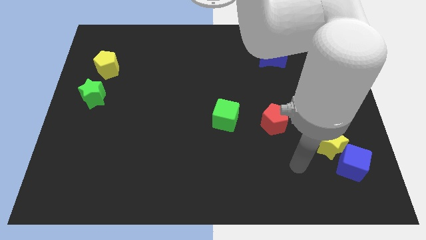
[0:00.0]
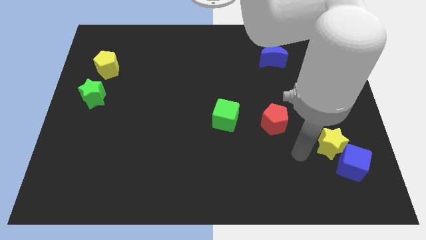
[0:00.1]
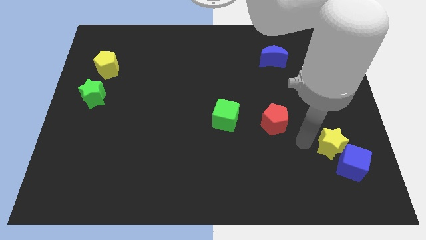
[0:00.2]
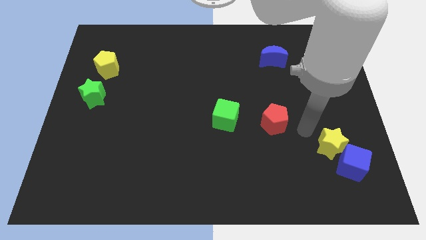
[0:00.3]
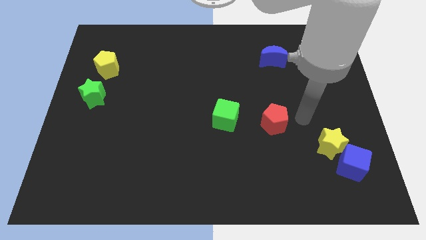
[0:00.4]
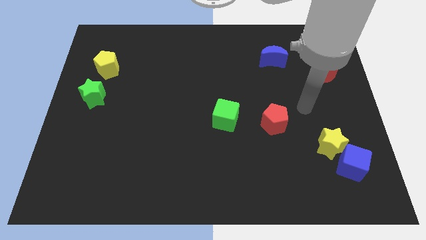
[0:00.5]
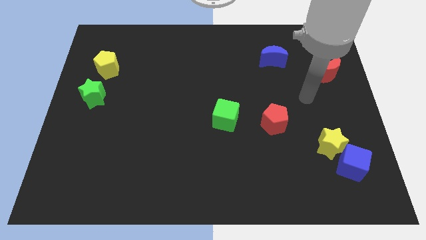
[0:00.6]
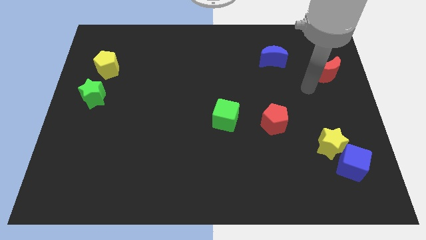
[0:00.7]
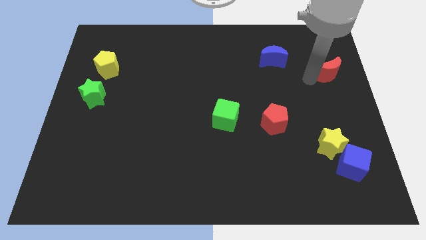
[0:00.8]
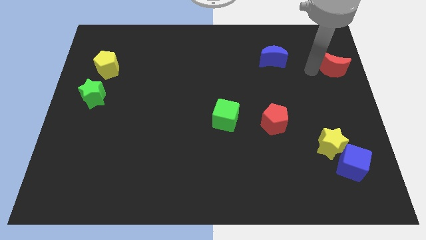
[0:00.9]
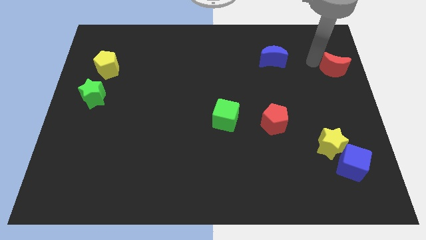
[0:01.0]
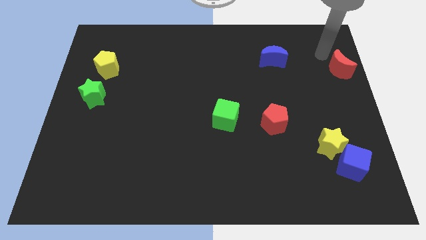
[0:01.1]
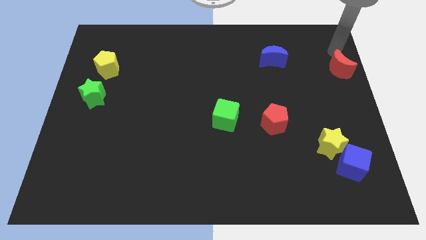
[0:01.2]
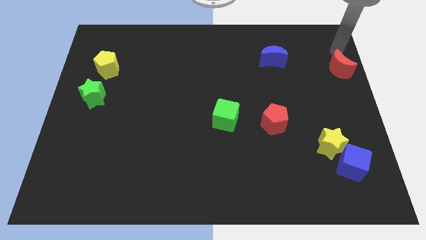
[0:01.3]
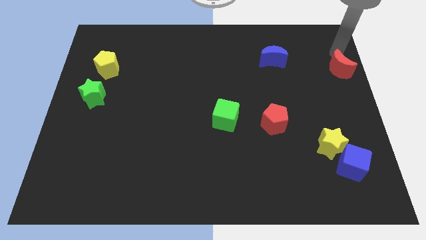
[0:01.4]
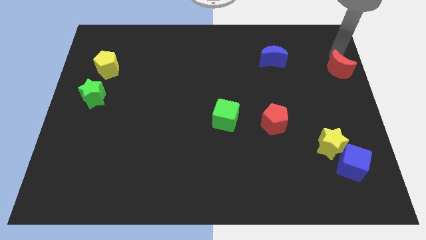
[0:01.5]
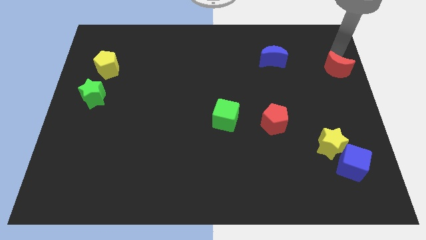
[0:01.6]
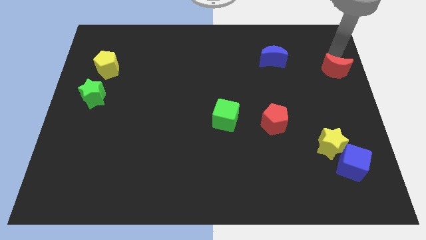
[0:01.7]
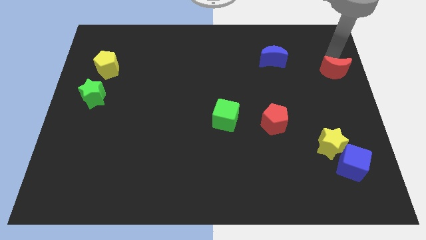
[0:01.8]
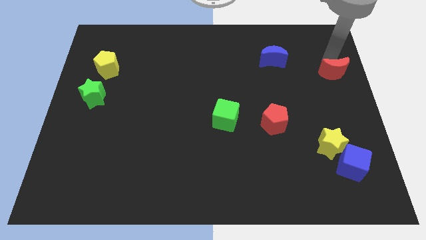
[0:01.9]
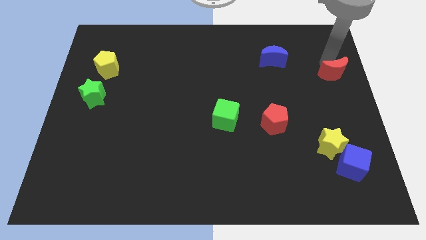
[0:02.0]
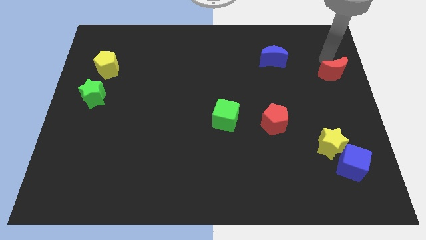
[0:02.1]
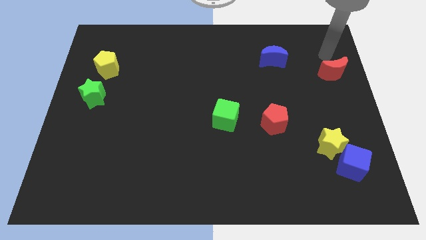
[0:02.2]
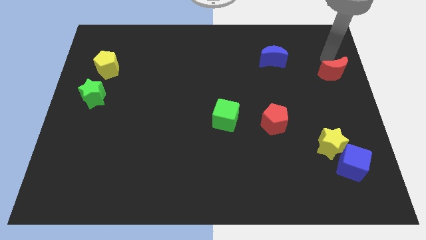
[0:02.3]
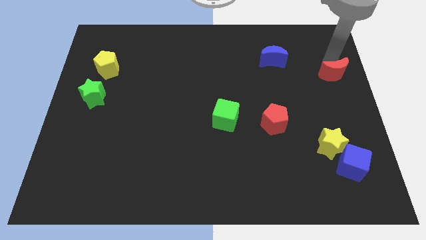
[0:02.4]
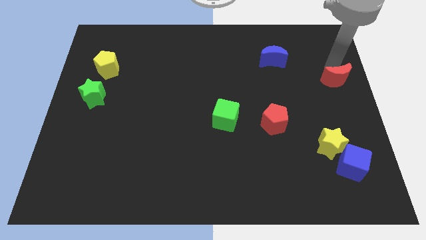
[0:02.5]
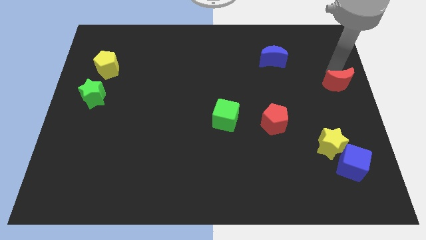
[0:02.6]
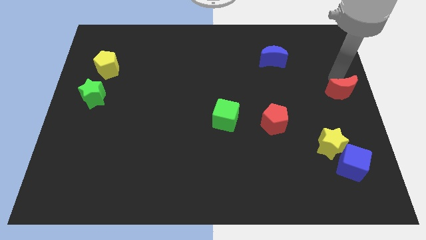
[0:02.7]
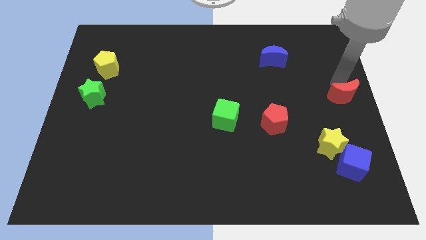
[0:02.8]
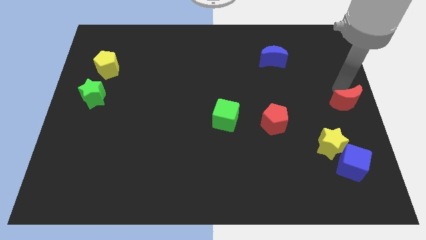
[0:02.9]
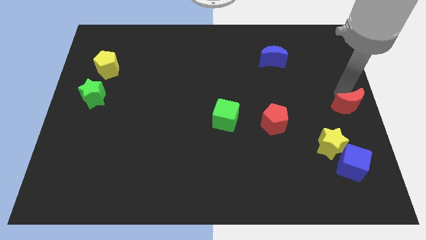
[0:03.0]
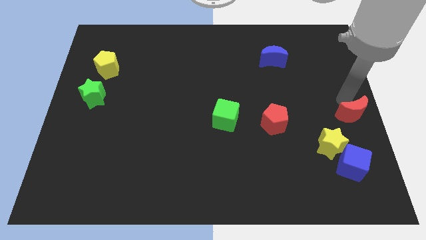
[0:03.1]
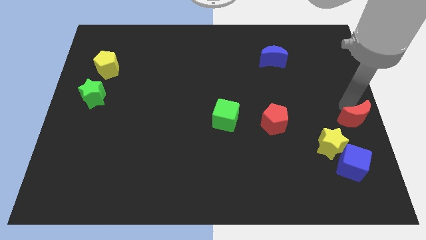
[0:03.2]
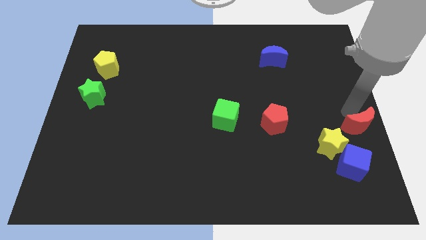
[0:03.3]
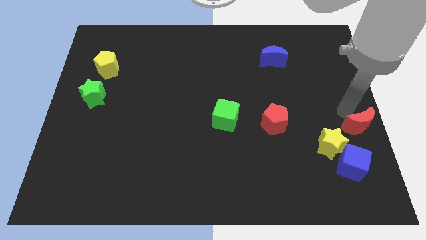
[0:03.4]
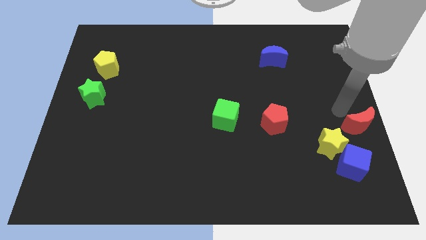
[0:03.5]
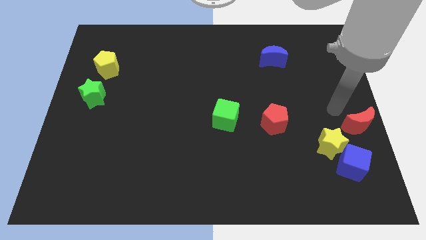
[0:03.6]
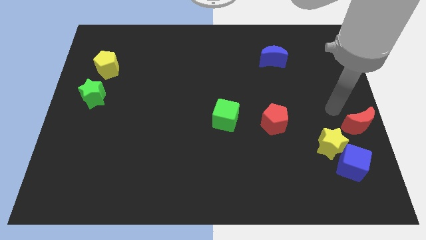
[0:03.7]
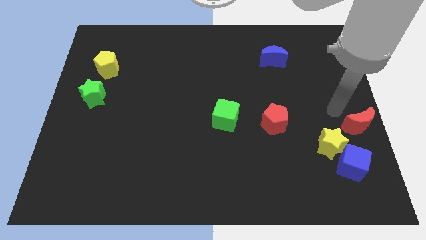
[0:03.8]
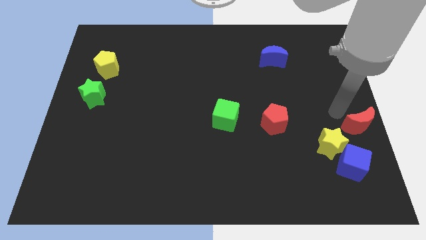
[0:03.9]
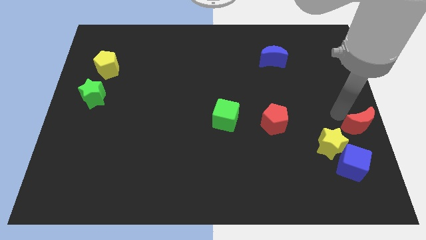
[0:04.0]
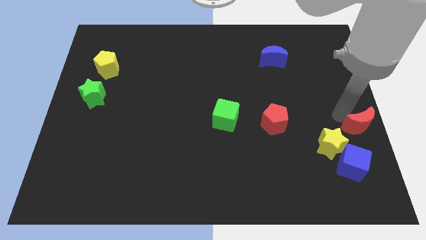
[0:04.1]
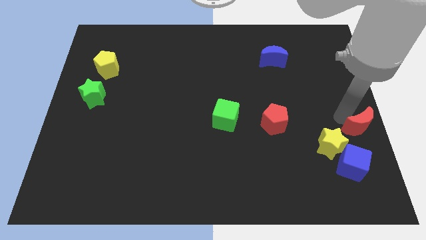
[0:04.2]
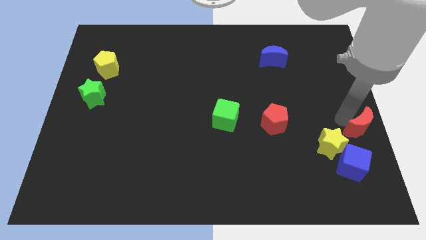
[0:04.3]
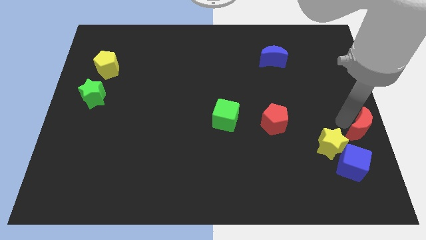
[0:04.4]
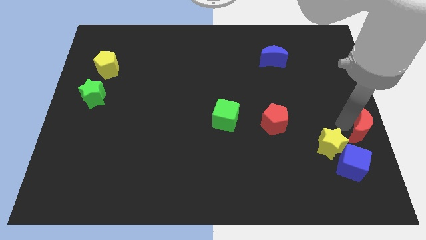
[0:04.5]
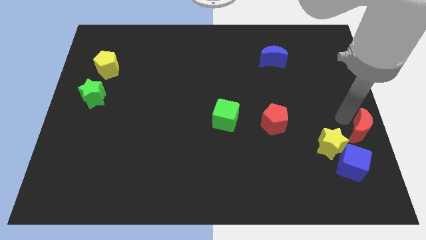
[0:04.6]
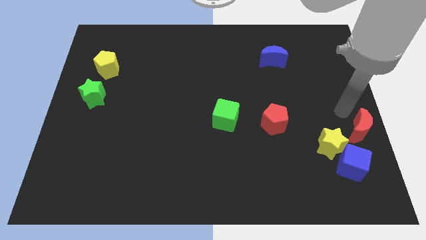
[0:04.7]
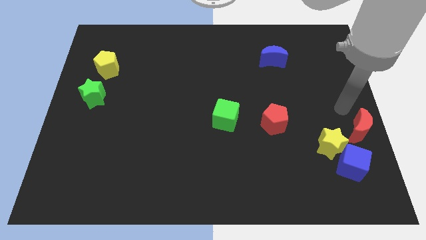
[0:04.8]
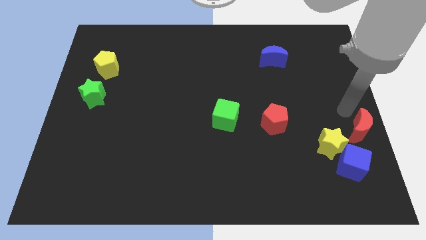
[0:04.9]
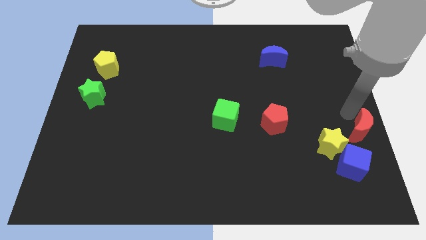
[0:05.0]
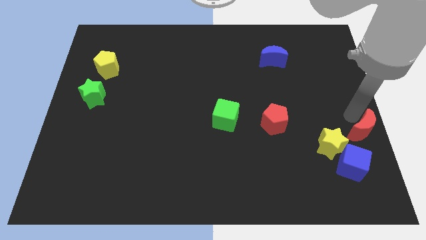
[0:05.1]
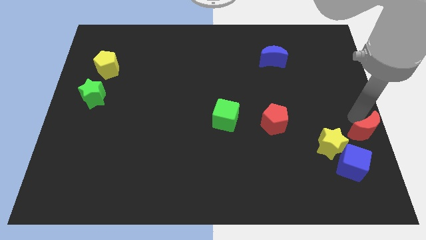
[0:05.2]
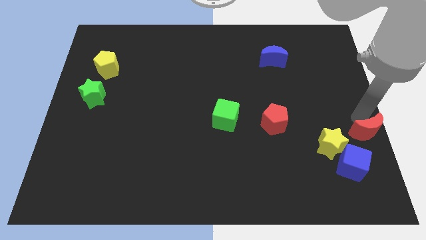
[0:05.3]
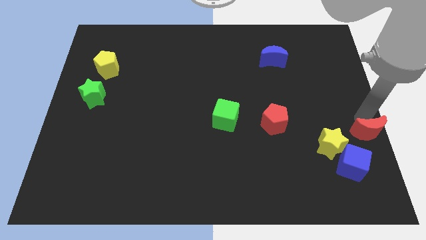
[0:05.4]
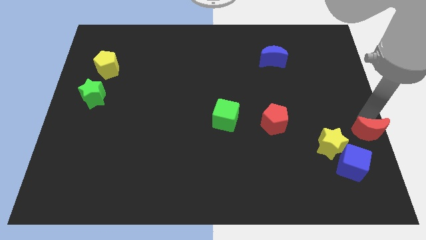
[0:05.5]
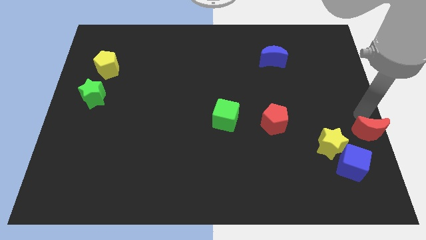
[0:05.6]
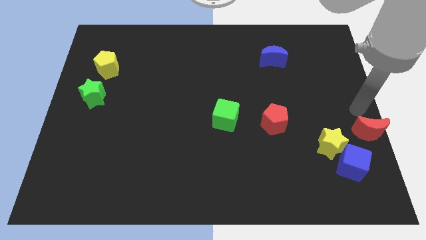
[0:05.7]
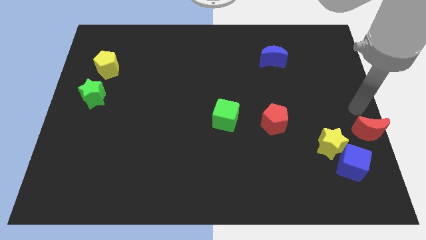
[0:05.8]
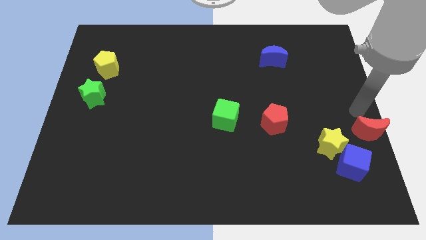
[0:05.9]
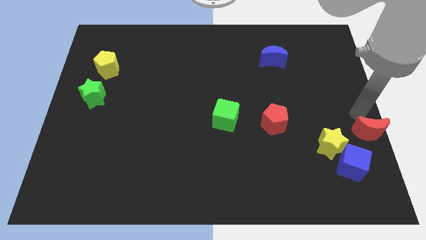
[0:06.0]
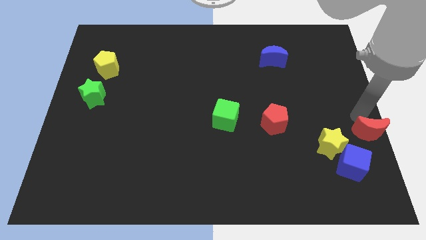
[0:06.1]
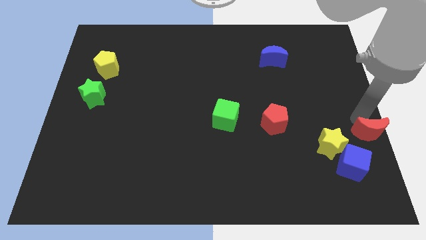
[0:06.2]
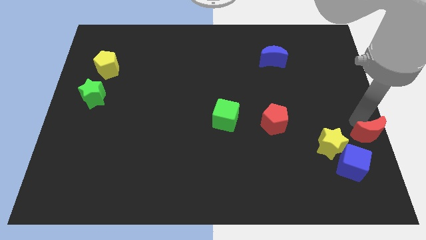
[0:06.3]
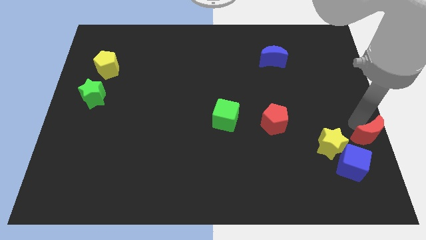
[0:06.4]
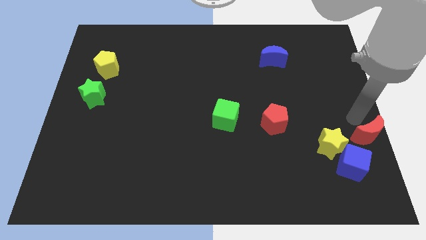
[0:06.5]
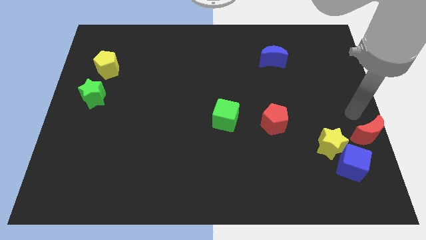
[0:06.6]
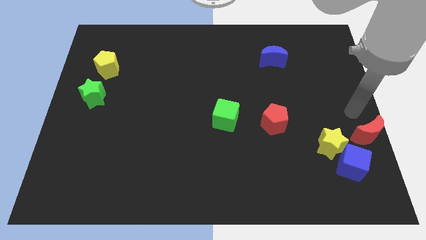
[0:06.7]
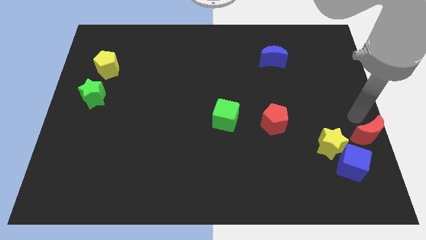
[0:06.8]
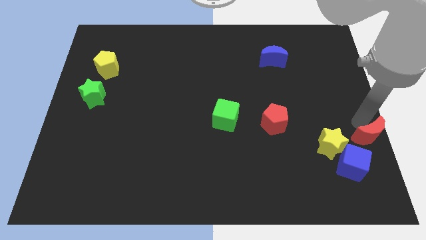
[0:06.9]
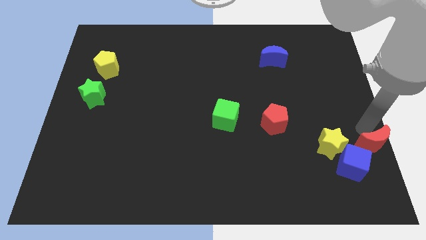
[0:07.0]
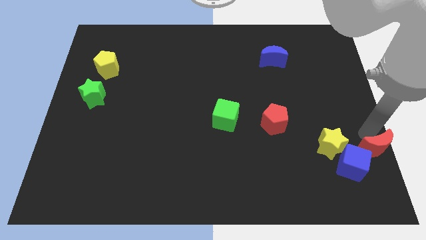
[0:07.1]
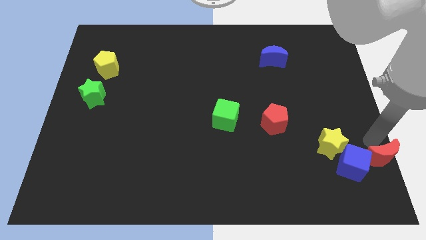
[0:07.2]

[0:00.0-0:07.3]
move the red moon to the bottom right
